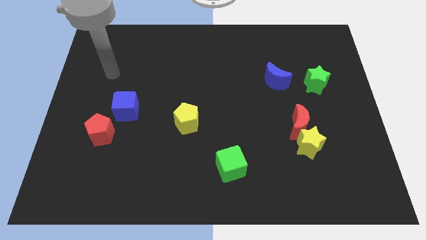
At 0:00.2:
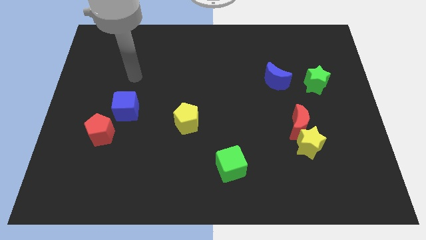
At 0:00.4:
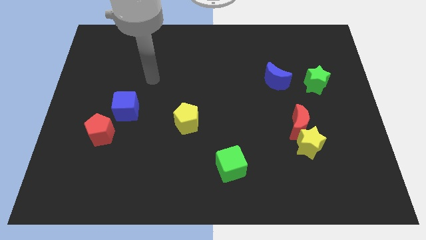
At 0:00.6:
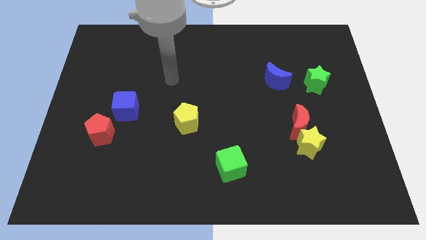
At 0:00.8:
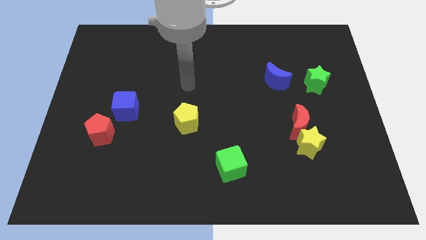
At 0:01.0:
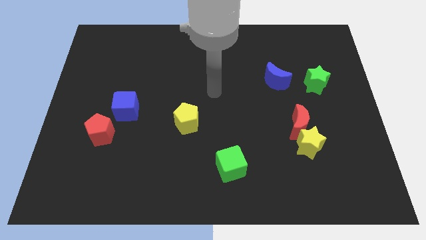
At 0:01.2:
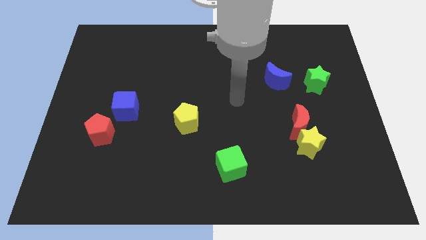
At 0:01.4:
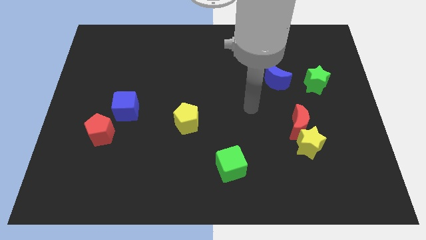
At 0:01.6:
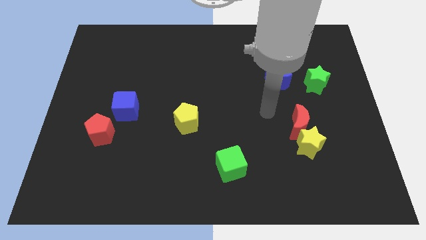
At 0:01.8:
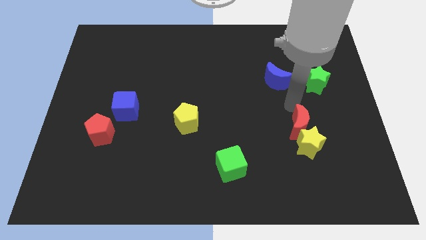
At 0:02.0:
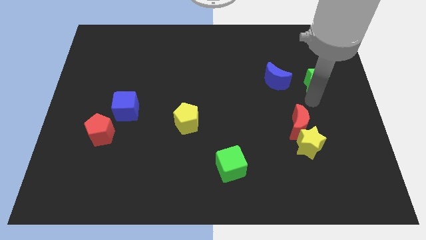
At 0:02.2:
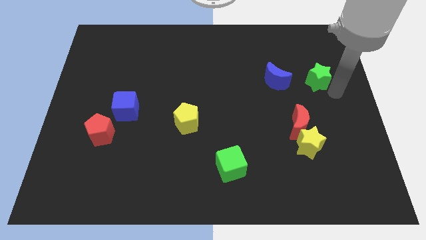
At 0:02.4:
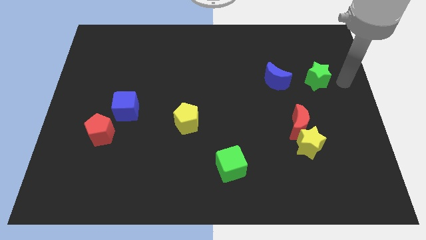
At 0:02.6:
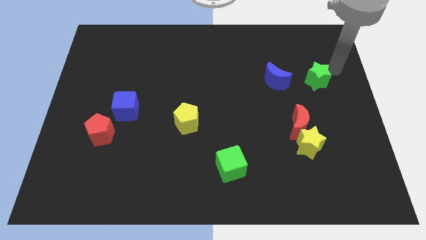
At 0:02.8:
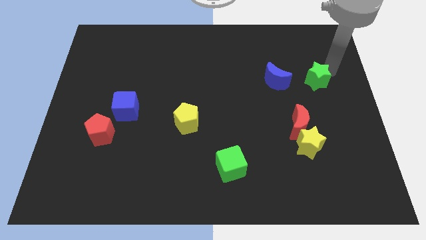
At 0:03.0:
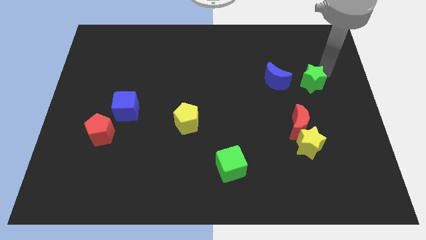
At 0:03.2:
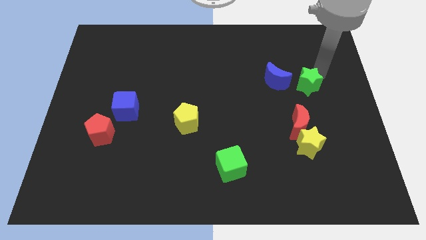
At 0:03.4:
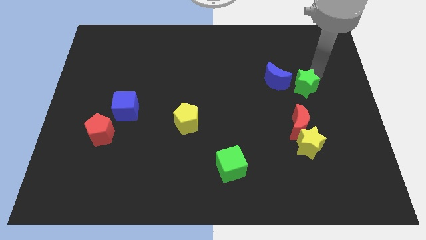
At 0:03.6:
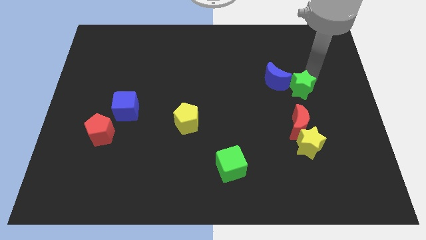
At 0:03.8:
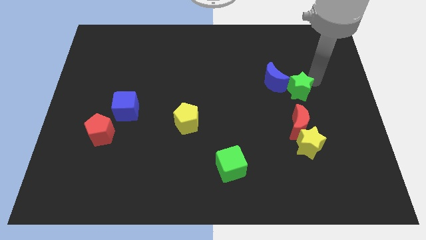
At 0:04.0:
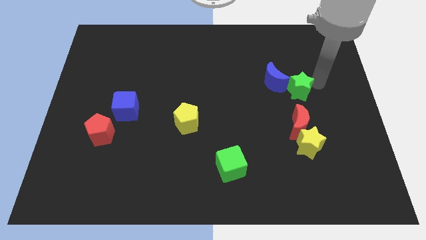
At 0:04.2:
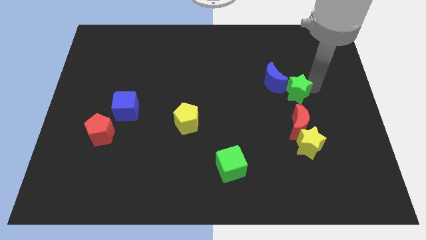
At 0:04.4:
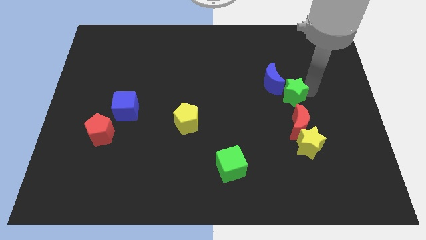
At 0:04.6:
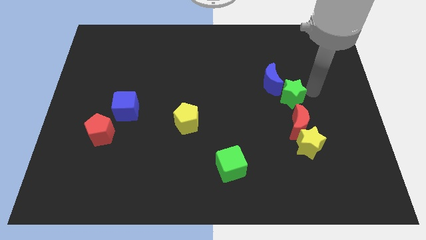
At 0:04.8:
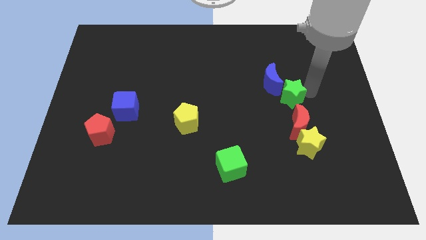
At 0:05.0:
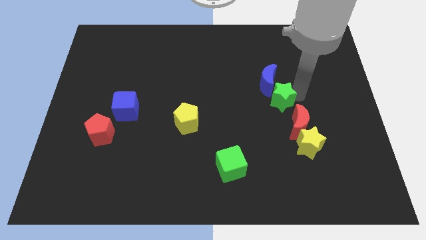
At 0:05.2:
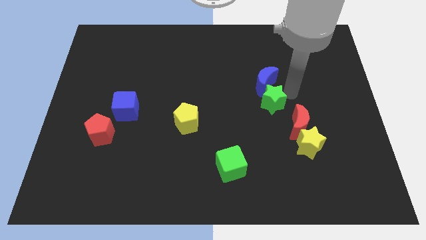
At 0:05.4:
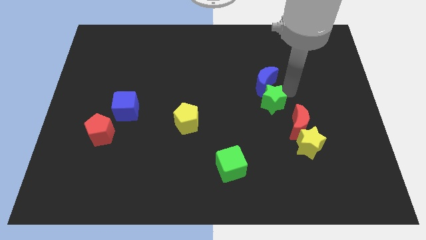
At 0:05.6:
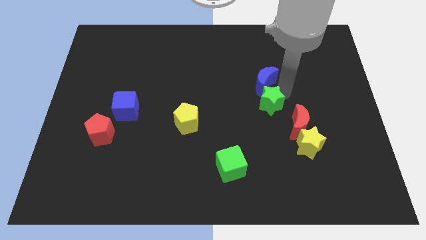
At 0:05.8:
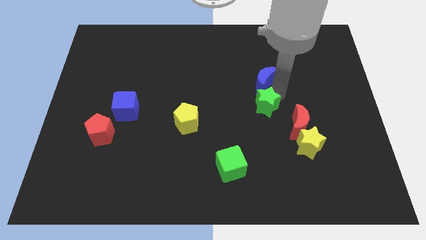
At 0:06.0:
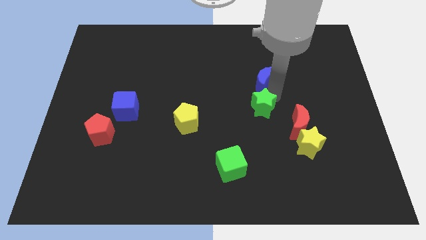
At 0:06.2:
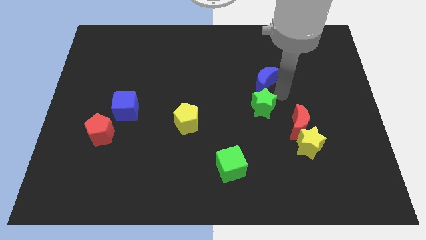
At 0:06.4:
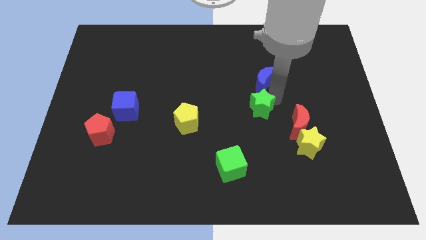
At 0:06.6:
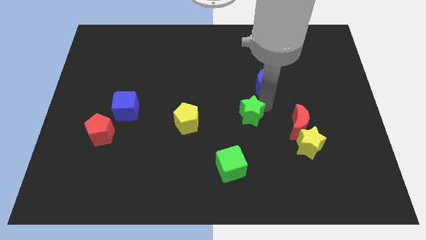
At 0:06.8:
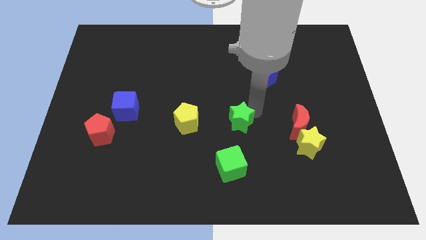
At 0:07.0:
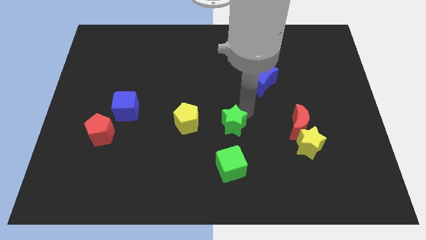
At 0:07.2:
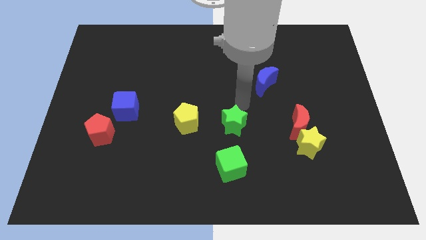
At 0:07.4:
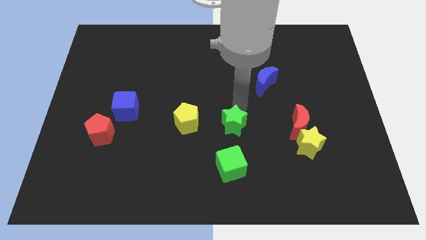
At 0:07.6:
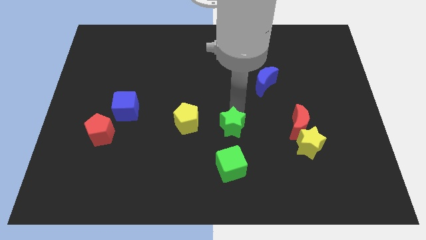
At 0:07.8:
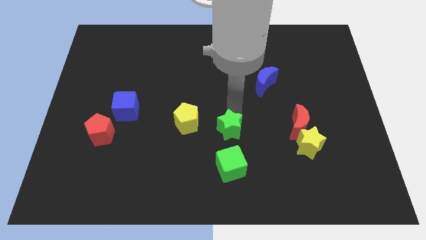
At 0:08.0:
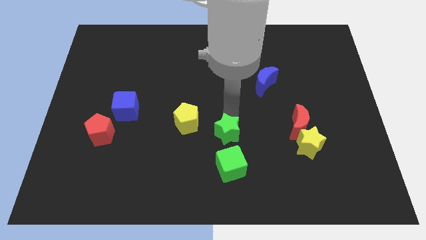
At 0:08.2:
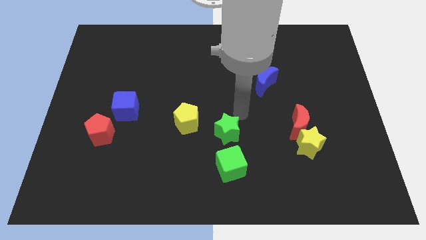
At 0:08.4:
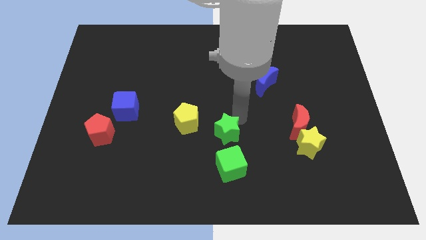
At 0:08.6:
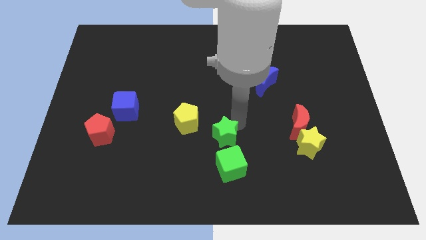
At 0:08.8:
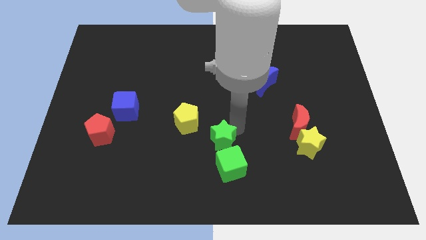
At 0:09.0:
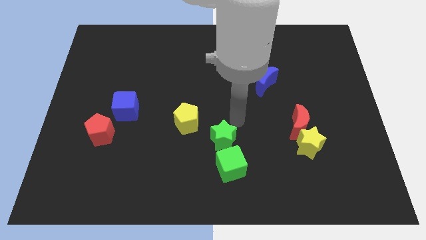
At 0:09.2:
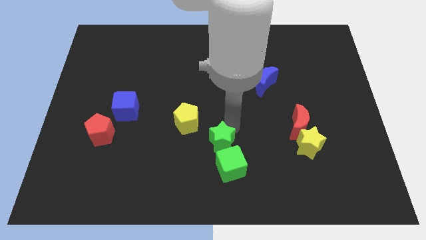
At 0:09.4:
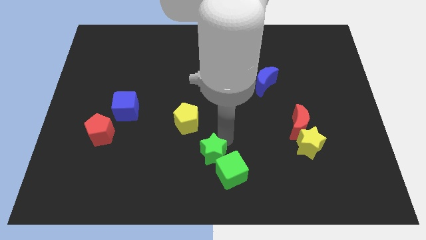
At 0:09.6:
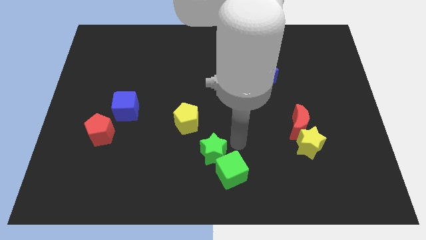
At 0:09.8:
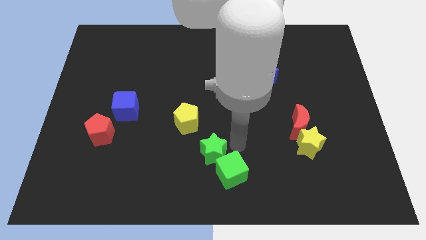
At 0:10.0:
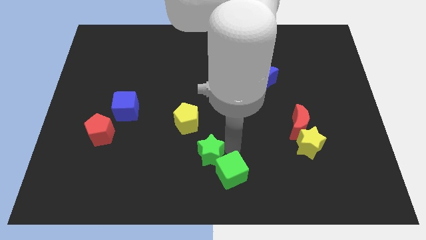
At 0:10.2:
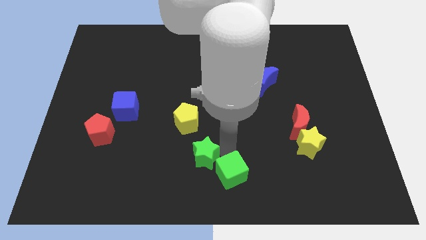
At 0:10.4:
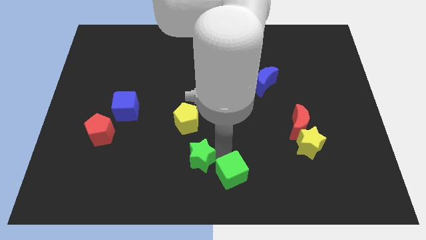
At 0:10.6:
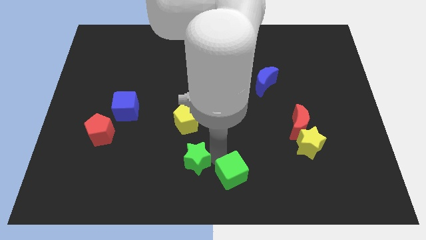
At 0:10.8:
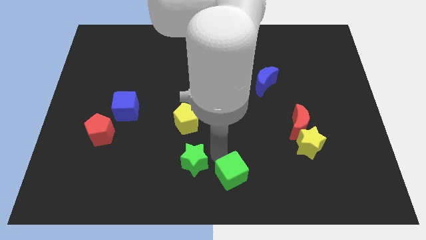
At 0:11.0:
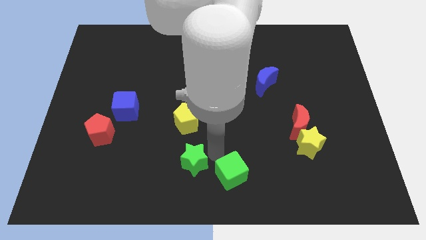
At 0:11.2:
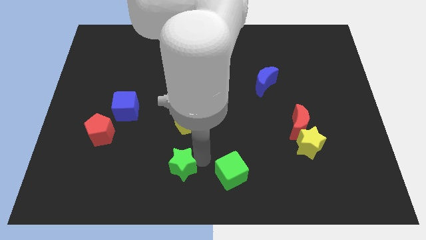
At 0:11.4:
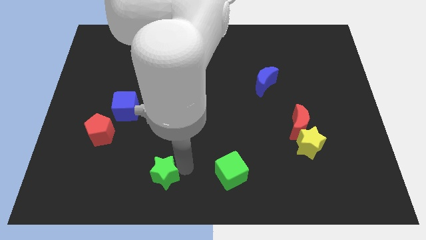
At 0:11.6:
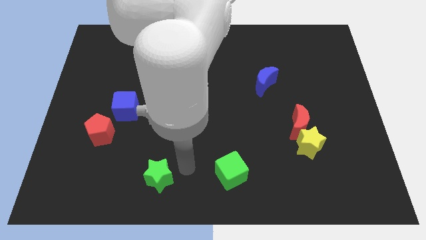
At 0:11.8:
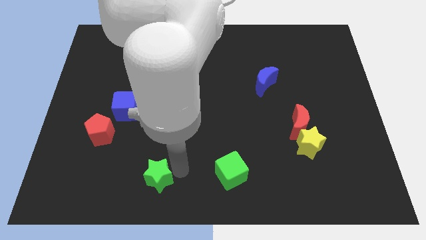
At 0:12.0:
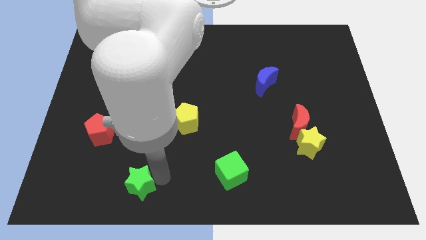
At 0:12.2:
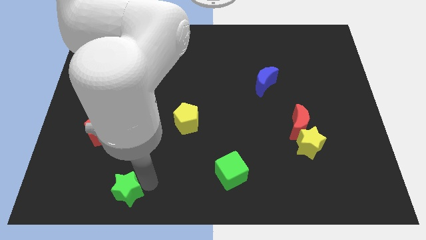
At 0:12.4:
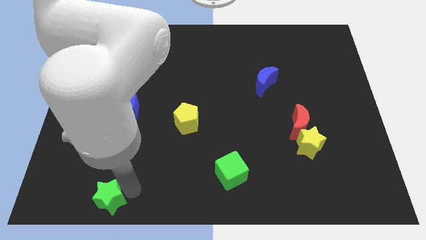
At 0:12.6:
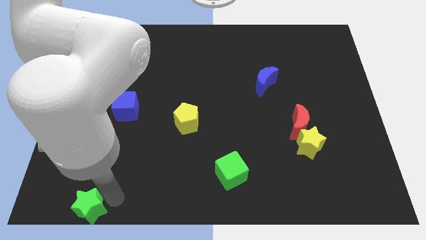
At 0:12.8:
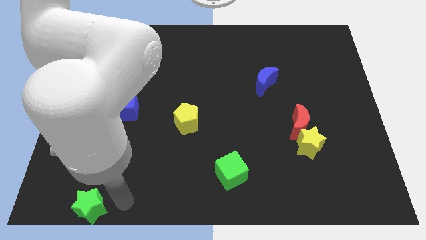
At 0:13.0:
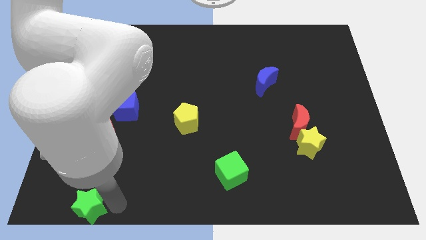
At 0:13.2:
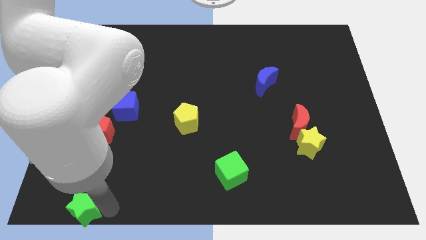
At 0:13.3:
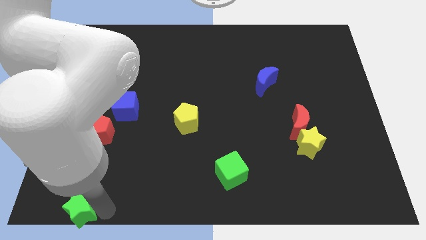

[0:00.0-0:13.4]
push the green star to the bottom left

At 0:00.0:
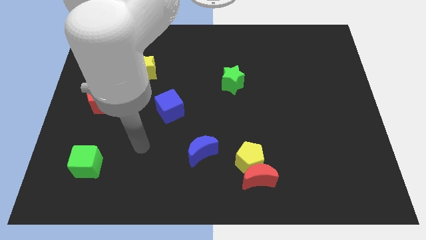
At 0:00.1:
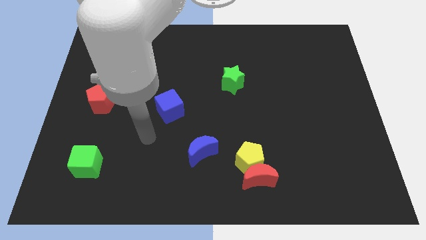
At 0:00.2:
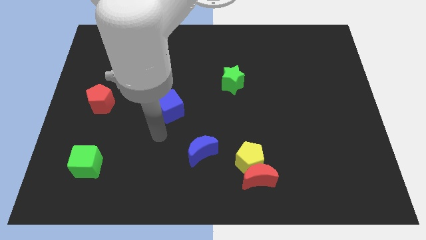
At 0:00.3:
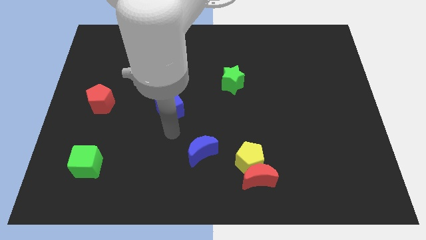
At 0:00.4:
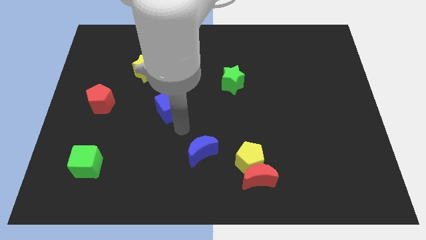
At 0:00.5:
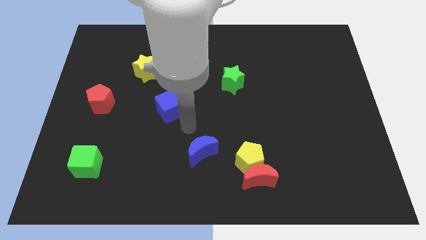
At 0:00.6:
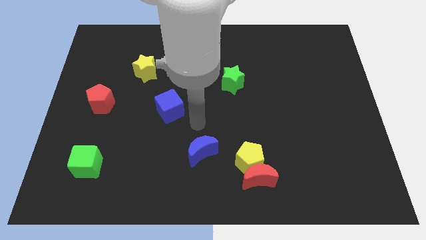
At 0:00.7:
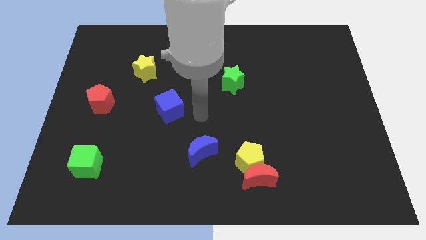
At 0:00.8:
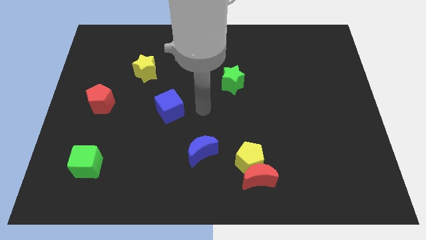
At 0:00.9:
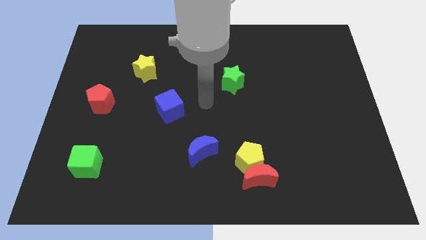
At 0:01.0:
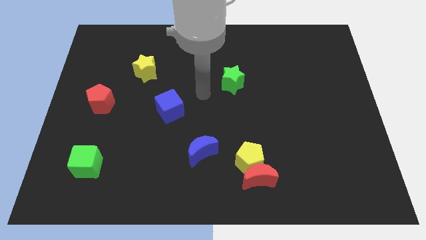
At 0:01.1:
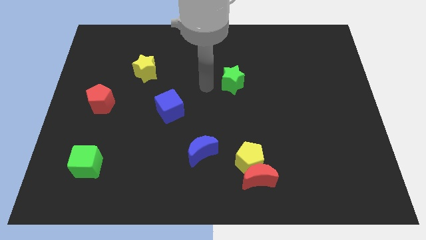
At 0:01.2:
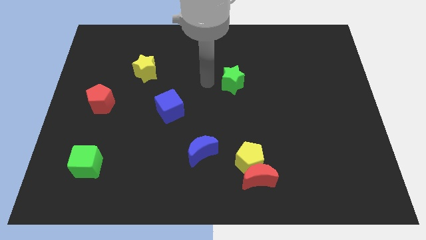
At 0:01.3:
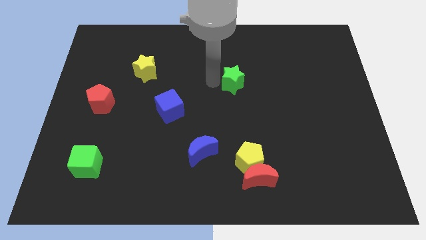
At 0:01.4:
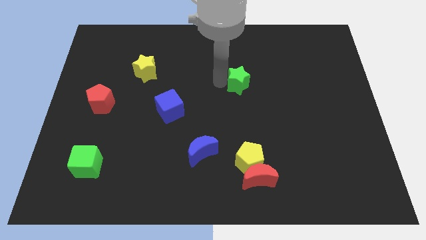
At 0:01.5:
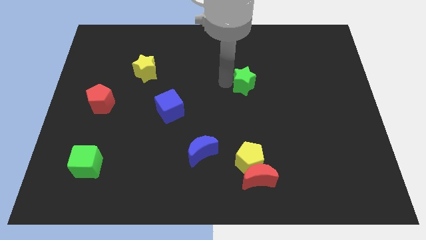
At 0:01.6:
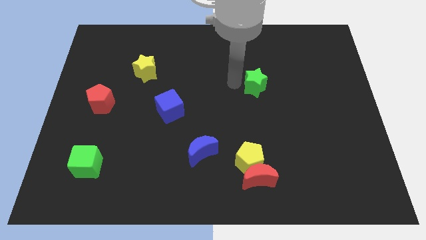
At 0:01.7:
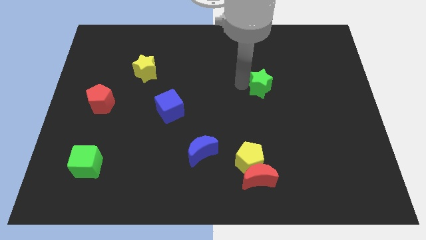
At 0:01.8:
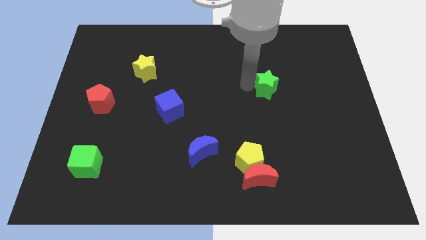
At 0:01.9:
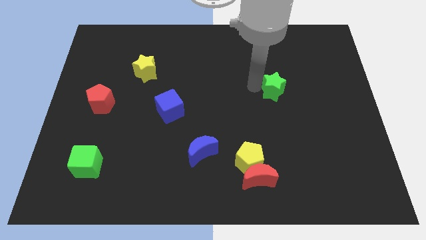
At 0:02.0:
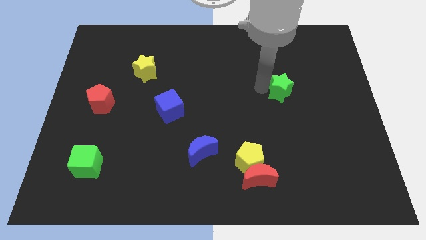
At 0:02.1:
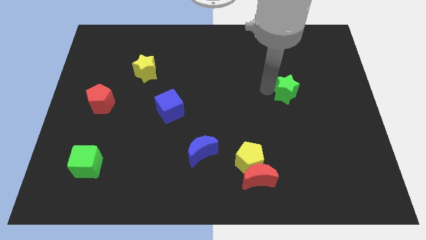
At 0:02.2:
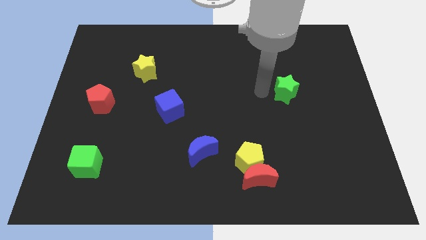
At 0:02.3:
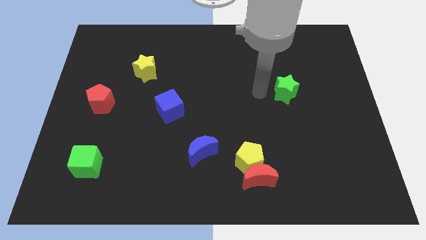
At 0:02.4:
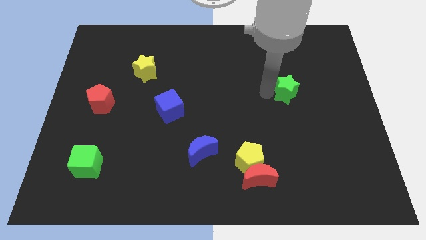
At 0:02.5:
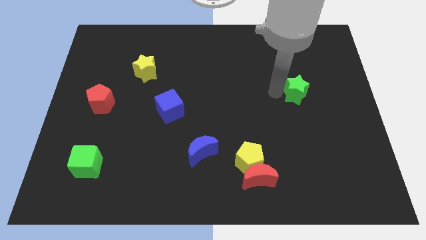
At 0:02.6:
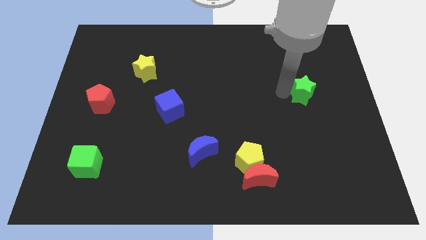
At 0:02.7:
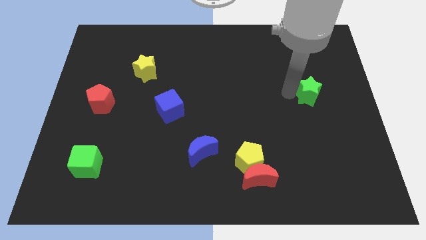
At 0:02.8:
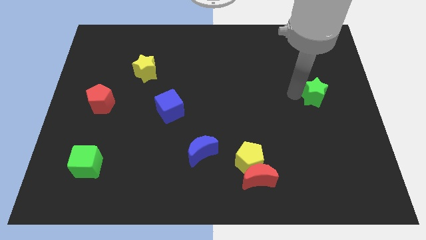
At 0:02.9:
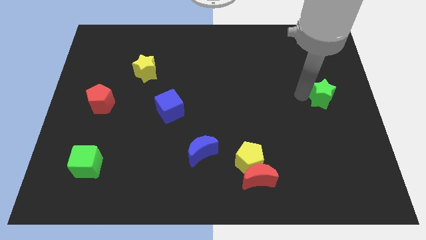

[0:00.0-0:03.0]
move the green star to the right side
